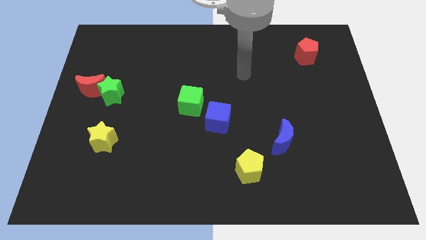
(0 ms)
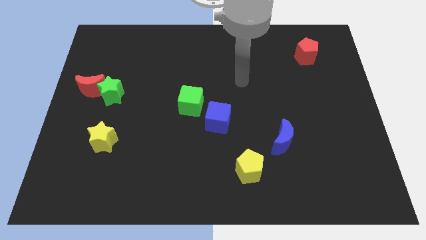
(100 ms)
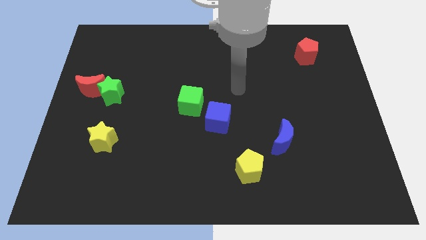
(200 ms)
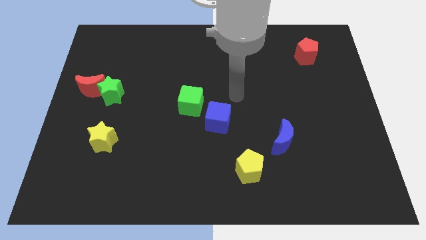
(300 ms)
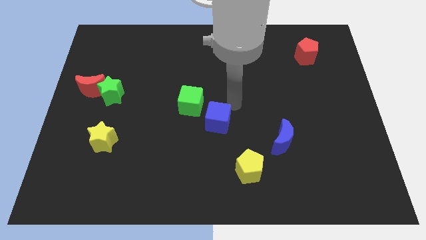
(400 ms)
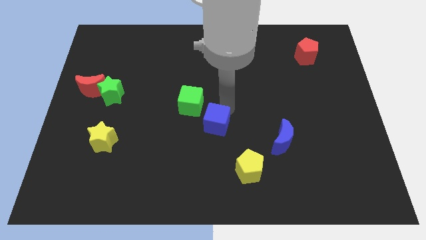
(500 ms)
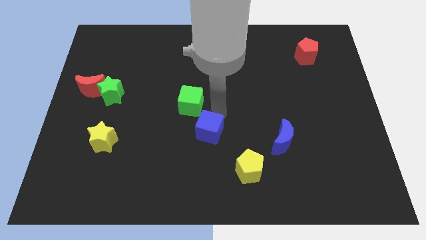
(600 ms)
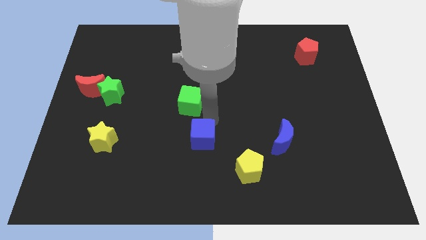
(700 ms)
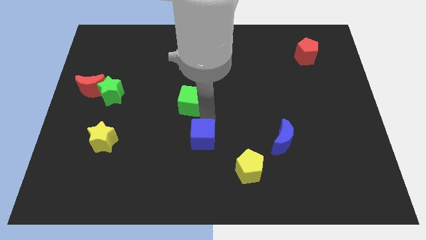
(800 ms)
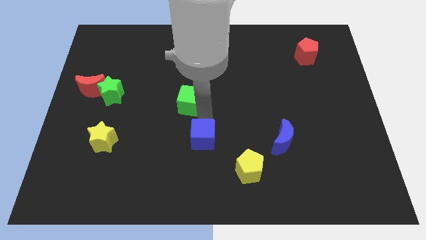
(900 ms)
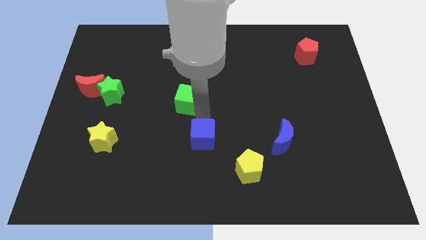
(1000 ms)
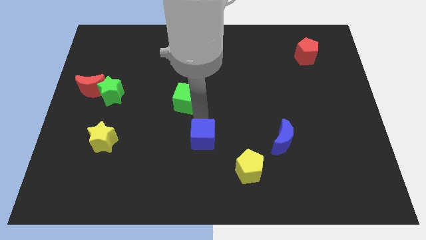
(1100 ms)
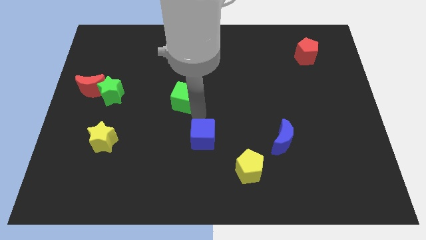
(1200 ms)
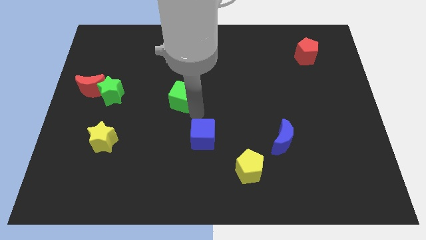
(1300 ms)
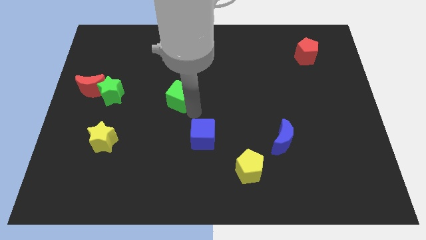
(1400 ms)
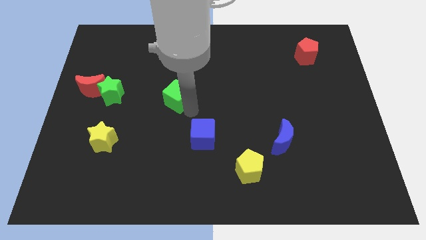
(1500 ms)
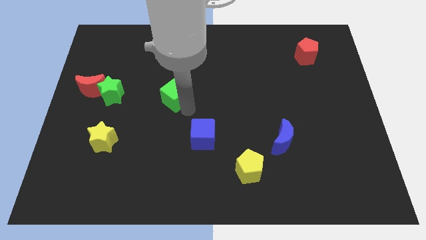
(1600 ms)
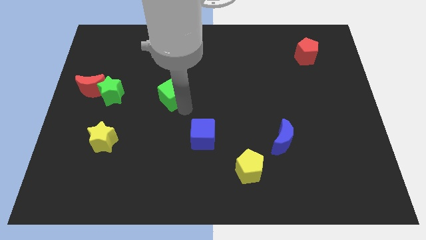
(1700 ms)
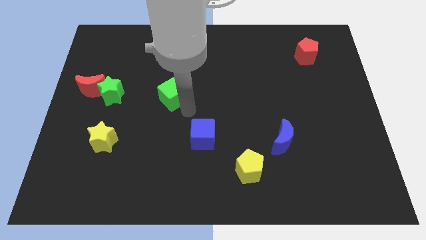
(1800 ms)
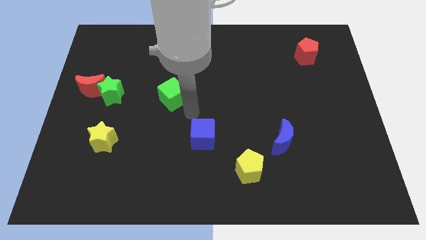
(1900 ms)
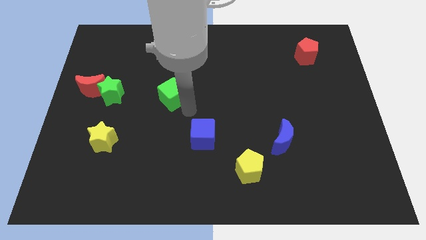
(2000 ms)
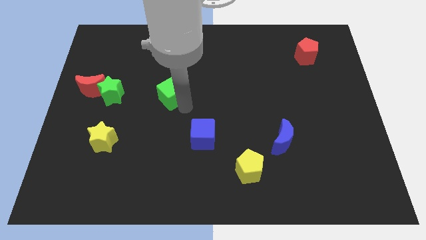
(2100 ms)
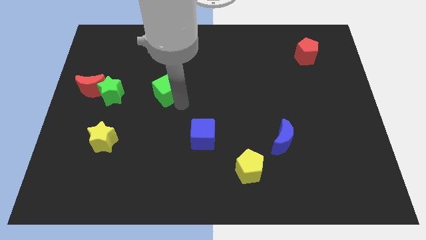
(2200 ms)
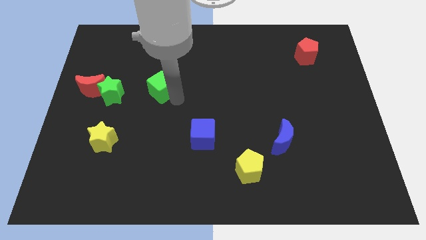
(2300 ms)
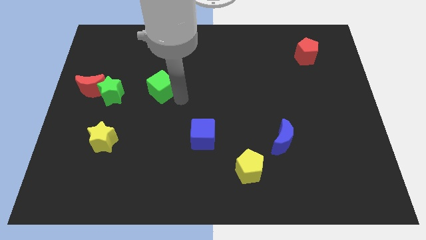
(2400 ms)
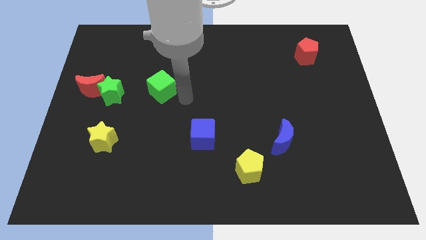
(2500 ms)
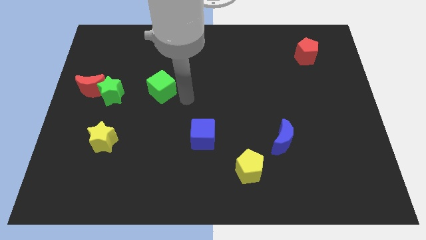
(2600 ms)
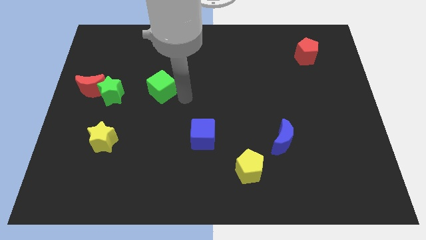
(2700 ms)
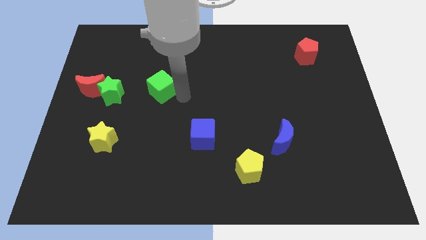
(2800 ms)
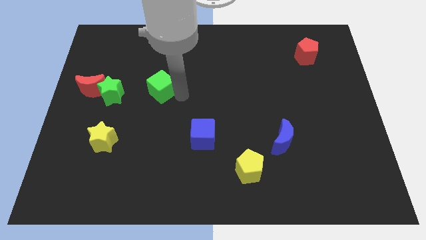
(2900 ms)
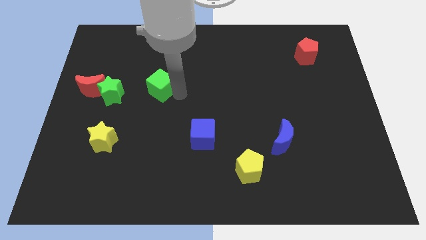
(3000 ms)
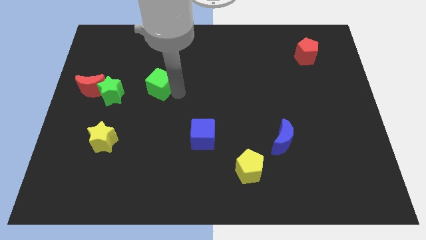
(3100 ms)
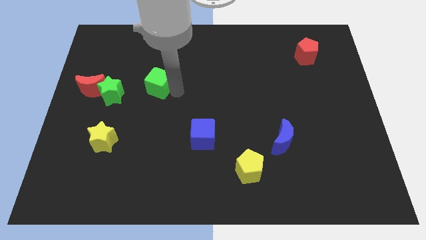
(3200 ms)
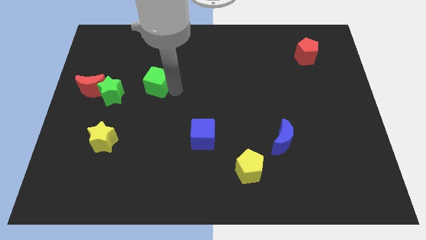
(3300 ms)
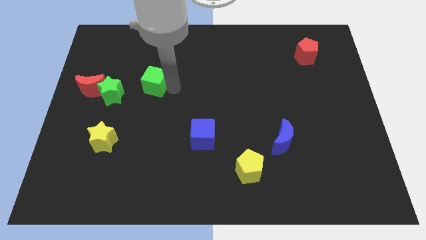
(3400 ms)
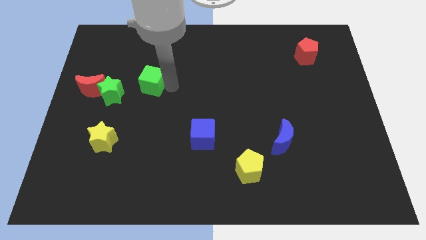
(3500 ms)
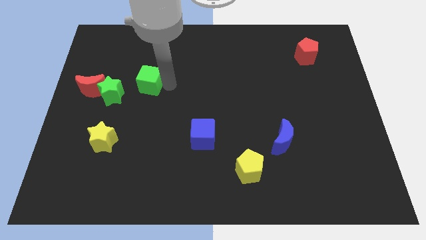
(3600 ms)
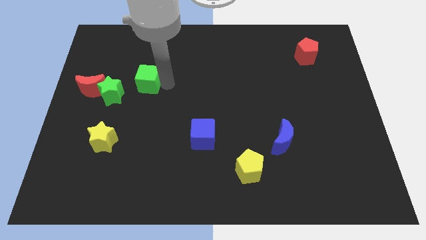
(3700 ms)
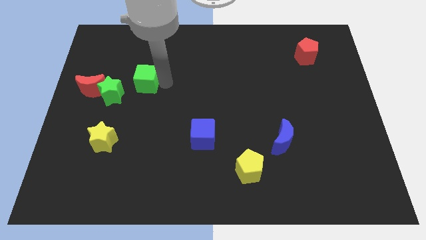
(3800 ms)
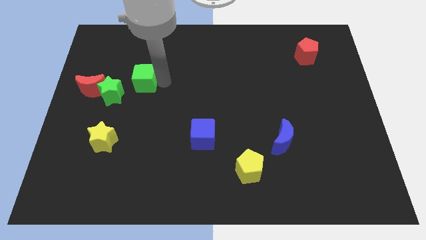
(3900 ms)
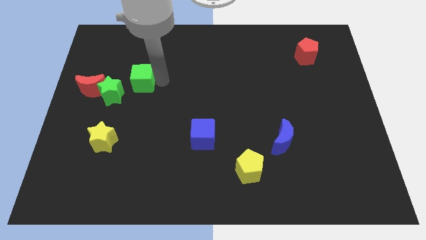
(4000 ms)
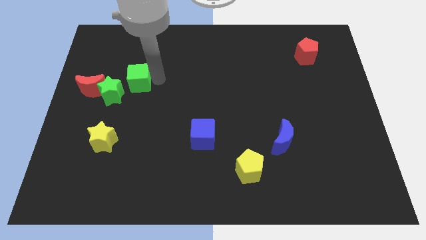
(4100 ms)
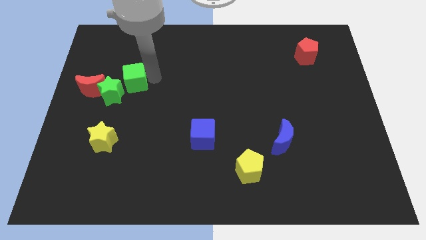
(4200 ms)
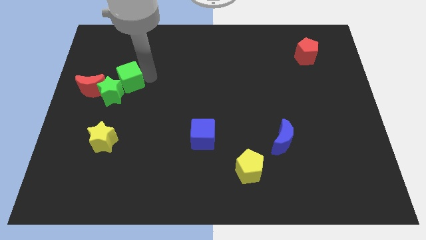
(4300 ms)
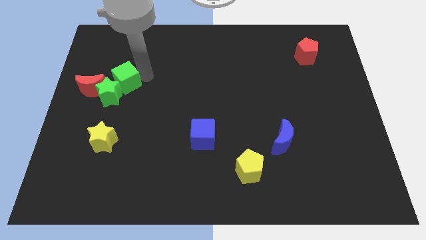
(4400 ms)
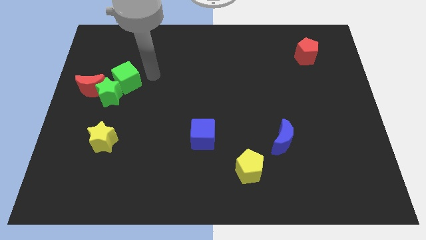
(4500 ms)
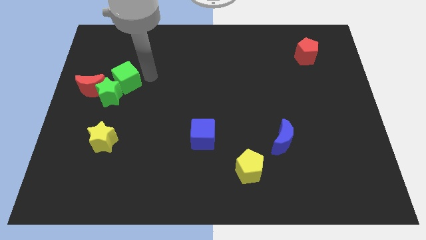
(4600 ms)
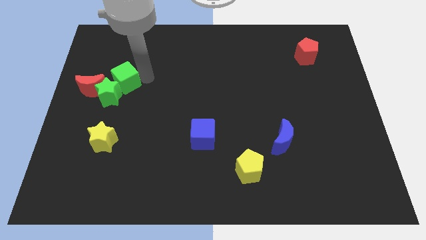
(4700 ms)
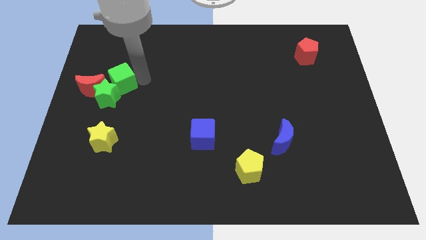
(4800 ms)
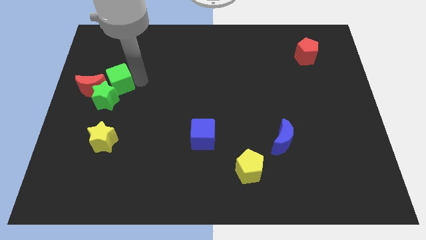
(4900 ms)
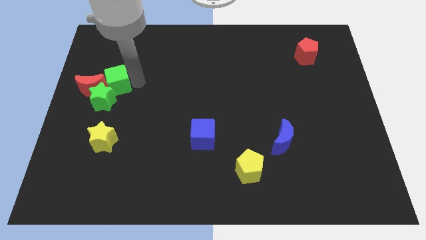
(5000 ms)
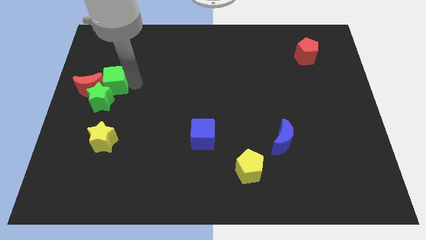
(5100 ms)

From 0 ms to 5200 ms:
move the green cube close to the red moon

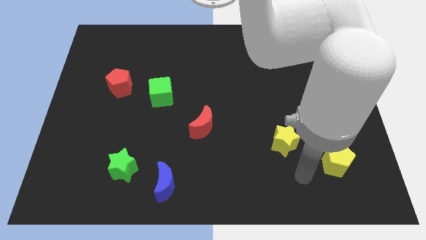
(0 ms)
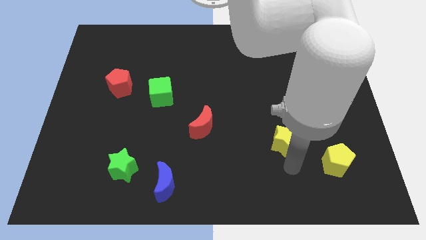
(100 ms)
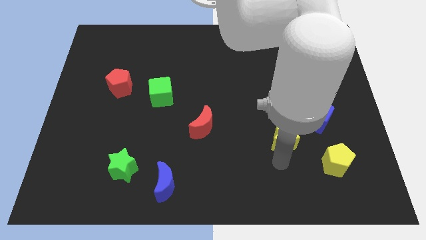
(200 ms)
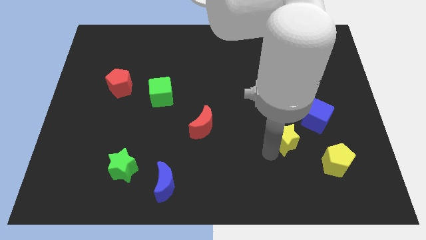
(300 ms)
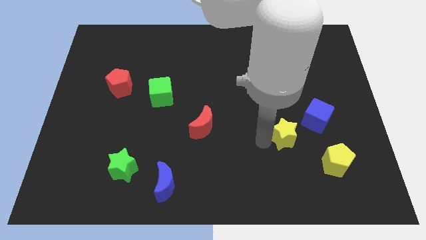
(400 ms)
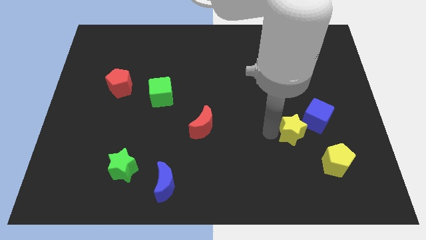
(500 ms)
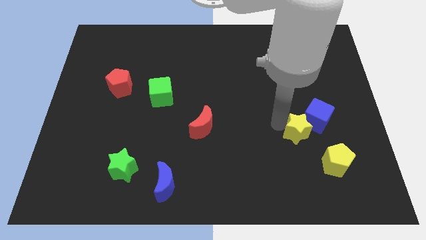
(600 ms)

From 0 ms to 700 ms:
put the blue cube next to the yellow star
